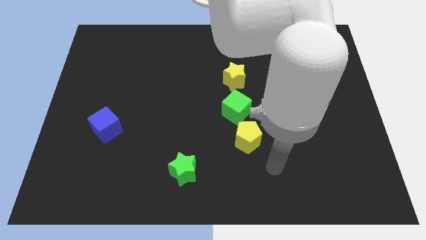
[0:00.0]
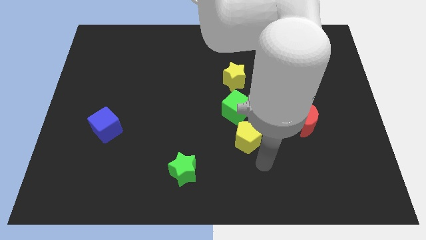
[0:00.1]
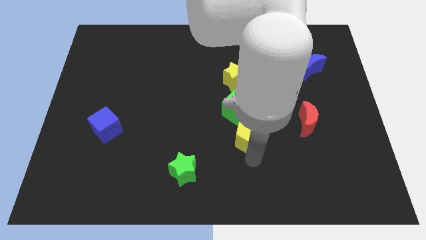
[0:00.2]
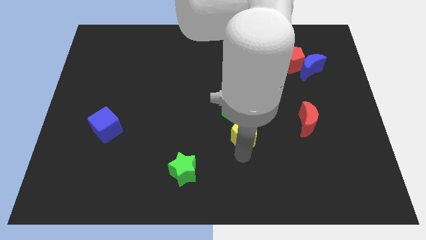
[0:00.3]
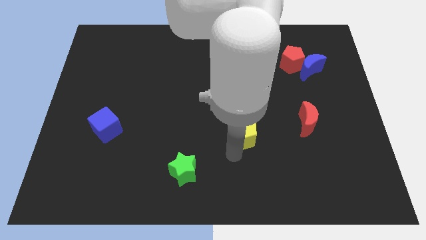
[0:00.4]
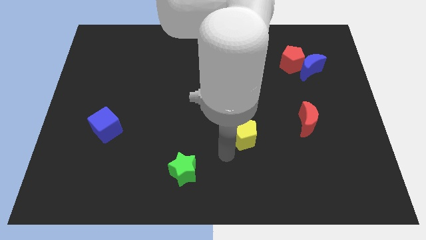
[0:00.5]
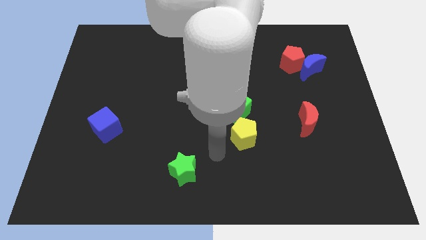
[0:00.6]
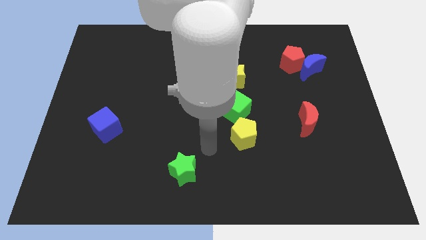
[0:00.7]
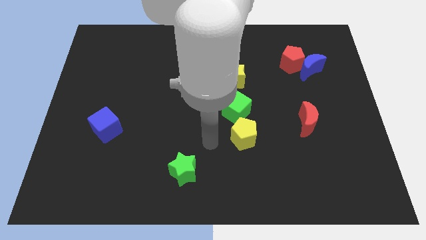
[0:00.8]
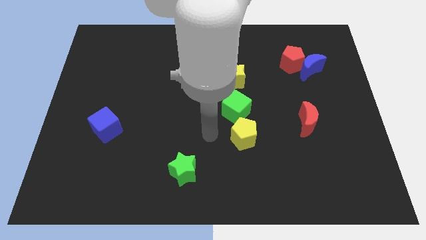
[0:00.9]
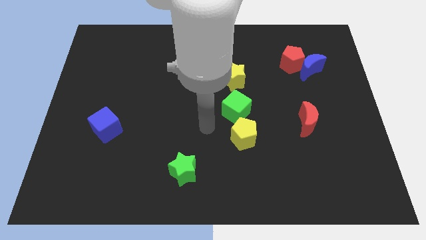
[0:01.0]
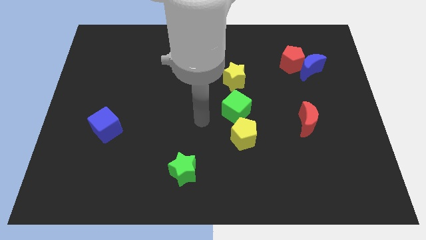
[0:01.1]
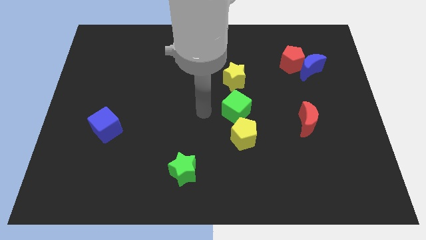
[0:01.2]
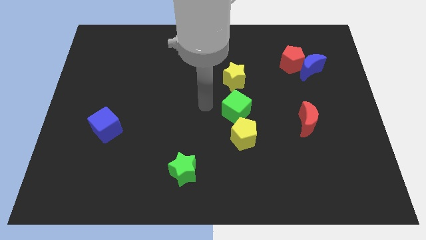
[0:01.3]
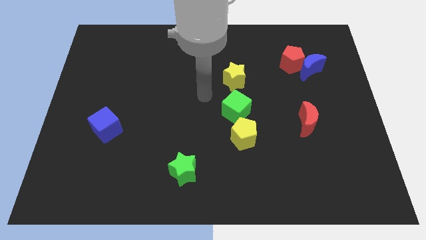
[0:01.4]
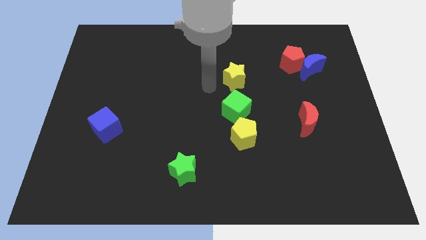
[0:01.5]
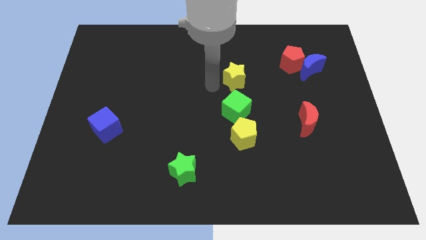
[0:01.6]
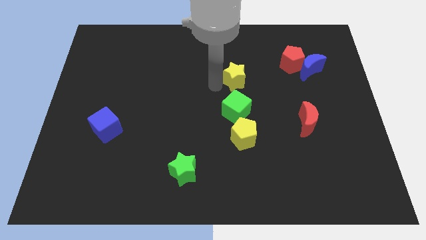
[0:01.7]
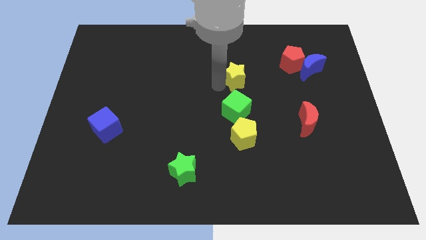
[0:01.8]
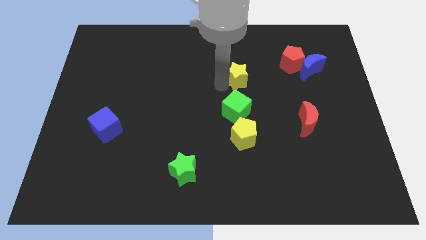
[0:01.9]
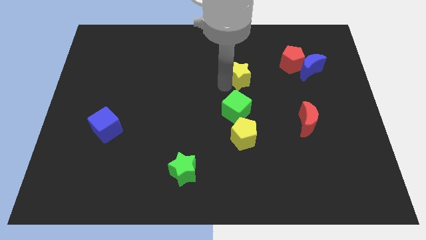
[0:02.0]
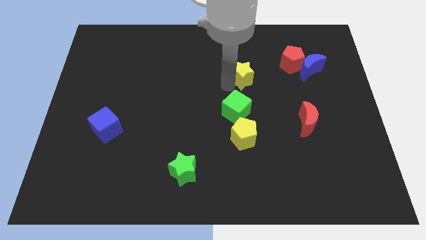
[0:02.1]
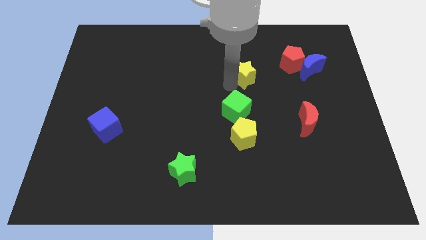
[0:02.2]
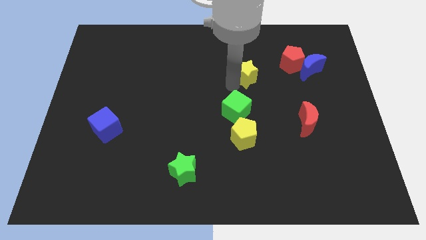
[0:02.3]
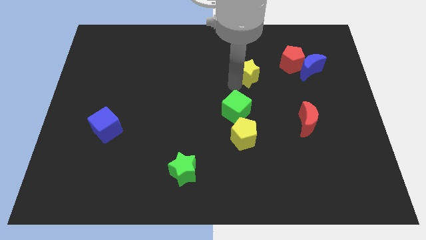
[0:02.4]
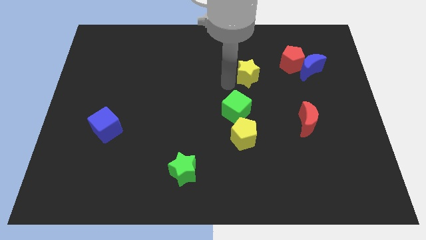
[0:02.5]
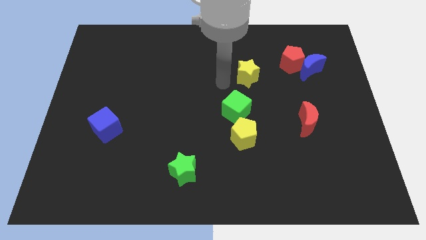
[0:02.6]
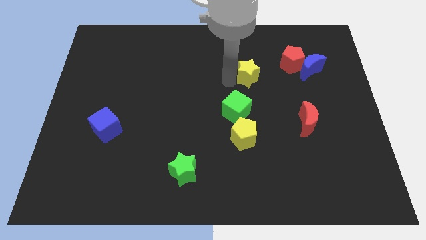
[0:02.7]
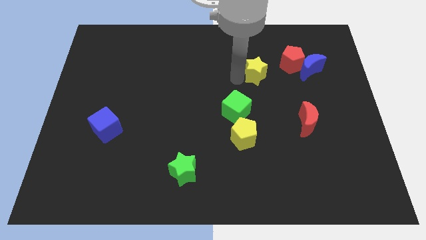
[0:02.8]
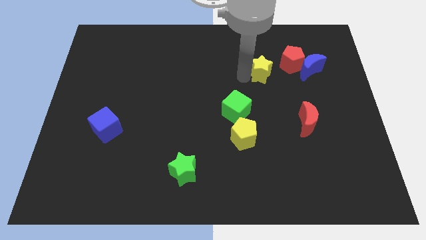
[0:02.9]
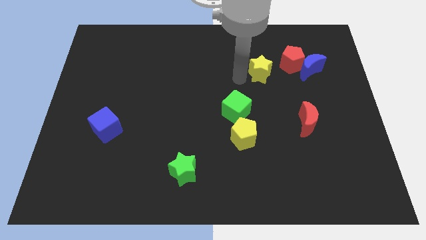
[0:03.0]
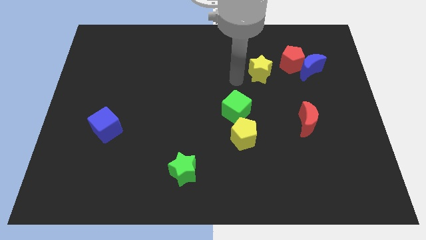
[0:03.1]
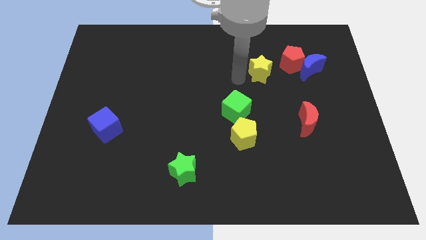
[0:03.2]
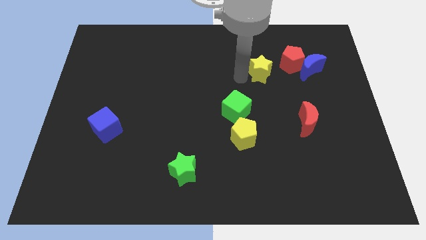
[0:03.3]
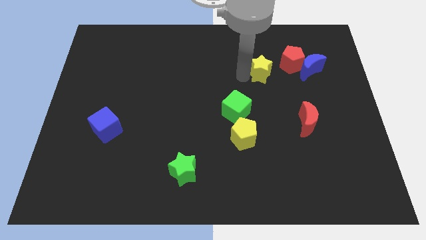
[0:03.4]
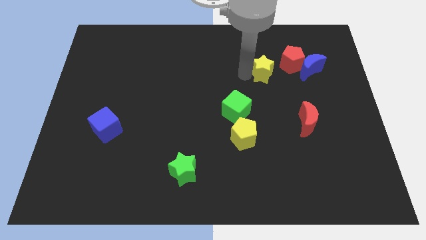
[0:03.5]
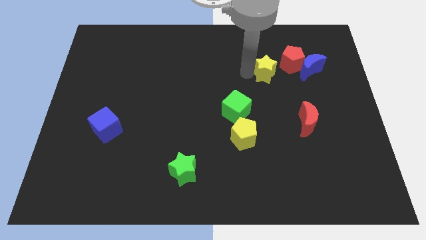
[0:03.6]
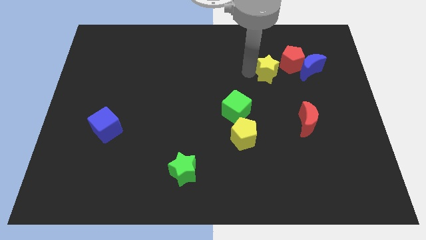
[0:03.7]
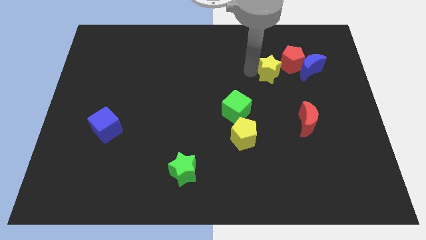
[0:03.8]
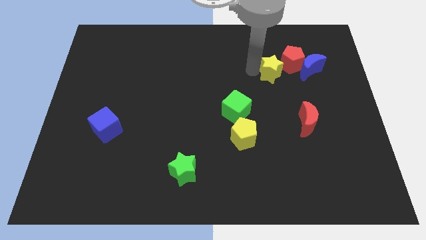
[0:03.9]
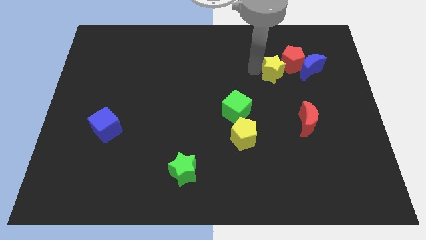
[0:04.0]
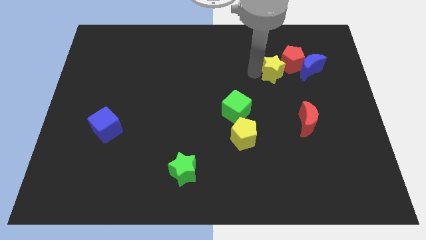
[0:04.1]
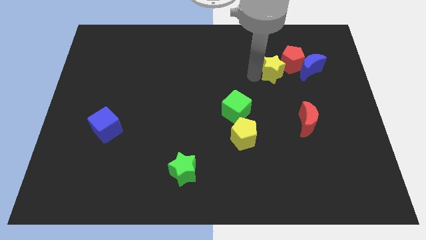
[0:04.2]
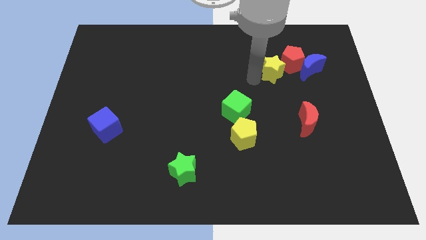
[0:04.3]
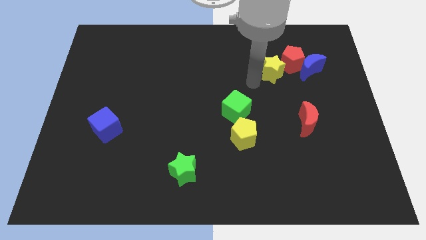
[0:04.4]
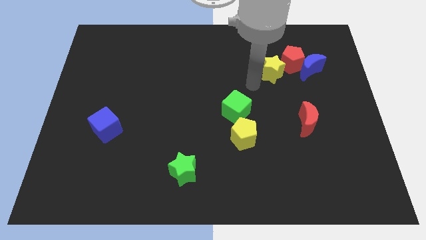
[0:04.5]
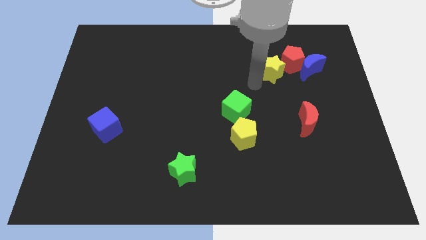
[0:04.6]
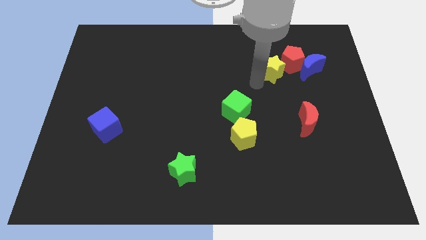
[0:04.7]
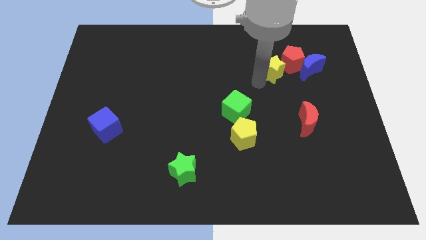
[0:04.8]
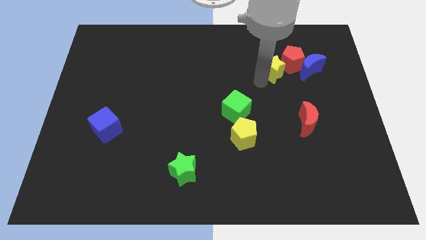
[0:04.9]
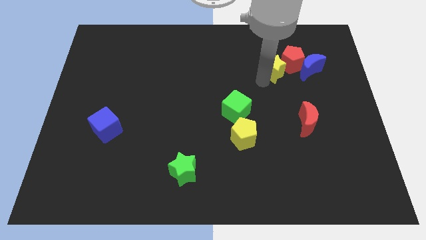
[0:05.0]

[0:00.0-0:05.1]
slide the yellow star close to the red pentagon

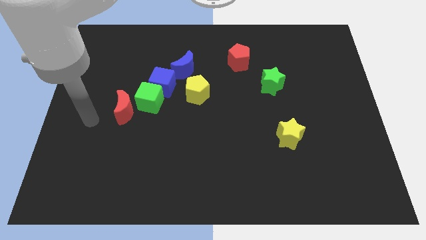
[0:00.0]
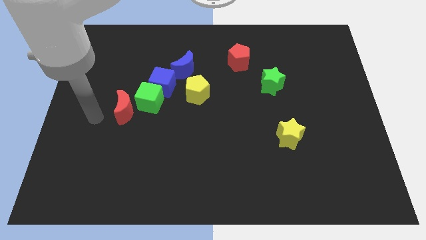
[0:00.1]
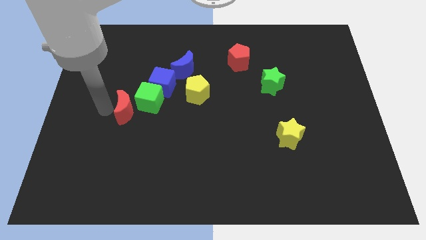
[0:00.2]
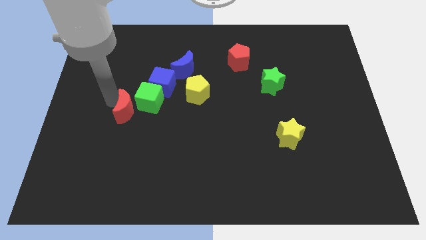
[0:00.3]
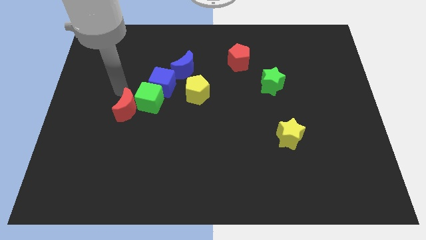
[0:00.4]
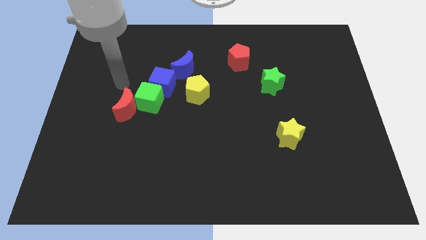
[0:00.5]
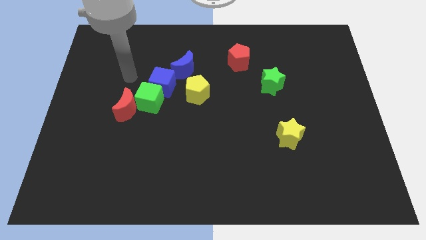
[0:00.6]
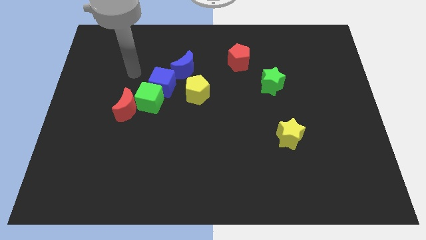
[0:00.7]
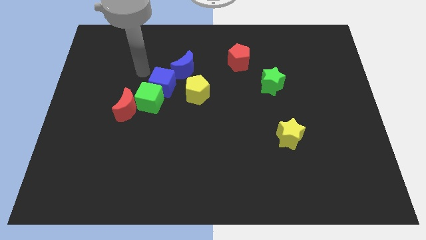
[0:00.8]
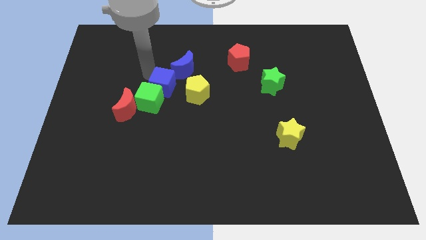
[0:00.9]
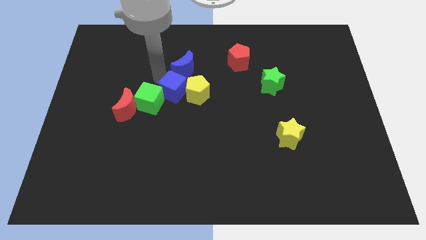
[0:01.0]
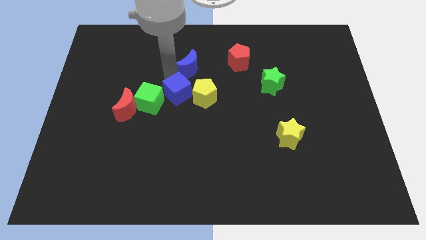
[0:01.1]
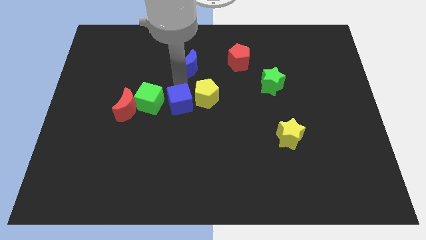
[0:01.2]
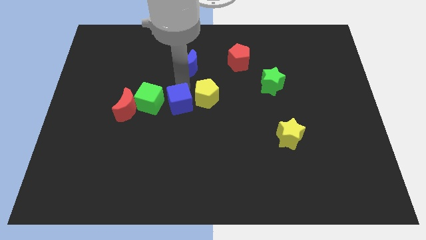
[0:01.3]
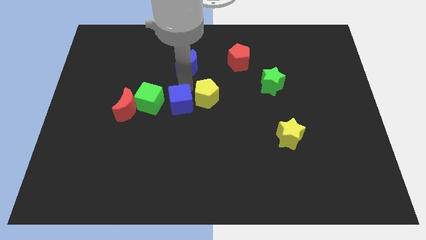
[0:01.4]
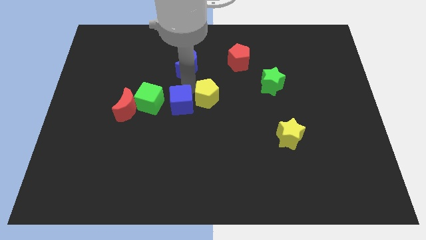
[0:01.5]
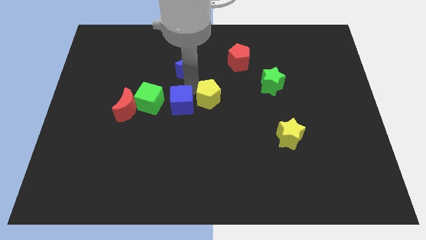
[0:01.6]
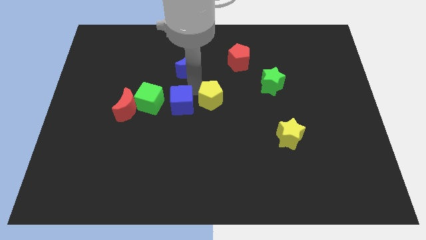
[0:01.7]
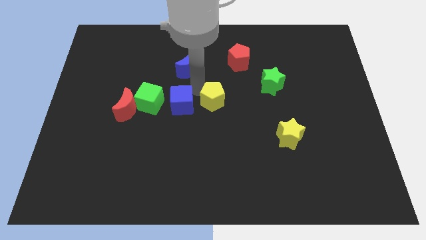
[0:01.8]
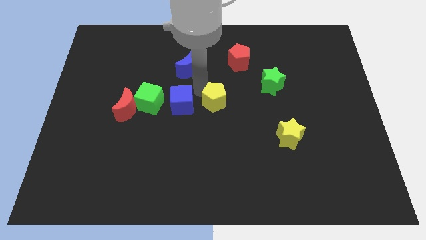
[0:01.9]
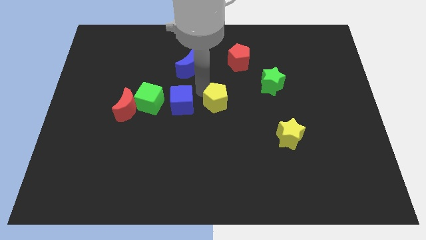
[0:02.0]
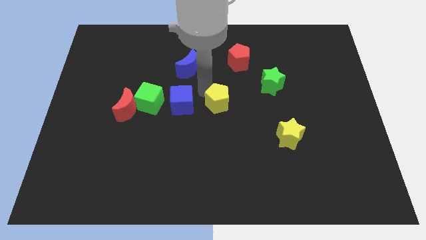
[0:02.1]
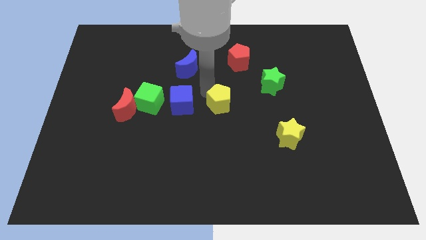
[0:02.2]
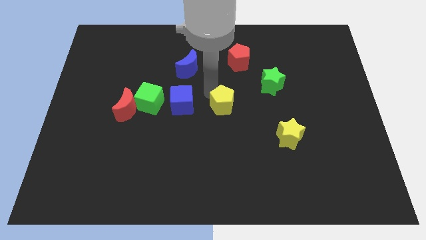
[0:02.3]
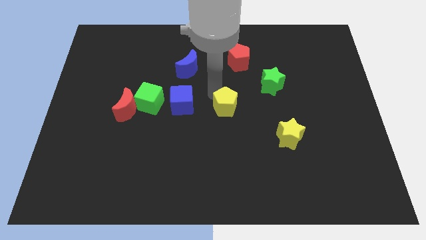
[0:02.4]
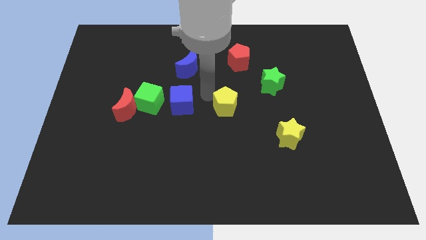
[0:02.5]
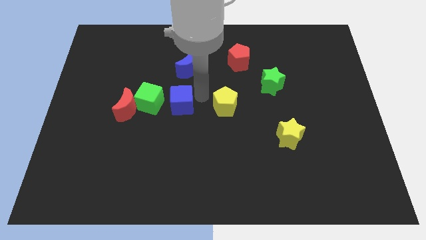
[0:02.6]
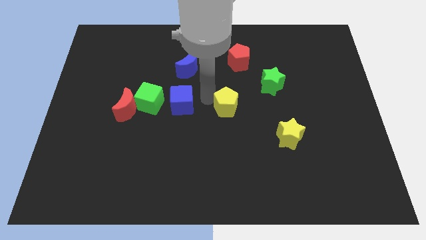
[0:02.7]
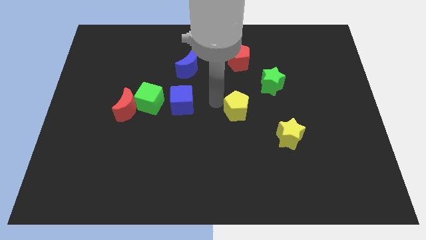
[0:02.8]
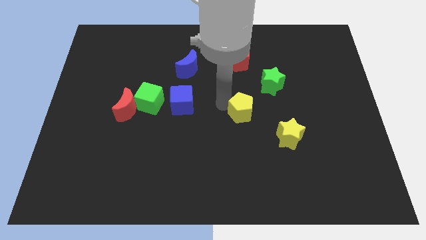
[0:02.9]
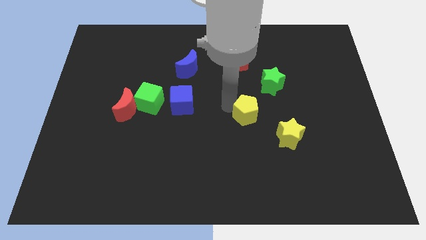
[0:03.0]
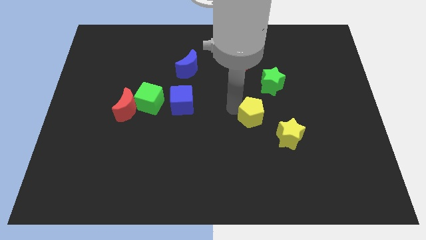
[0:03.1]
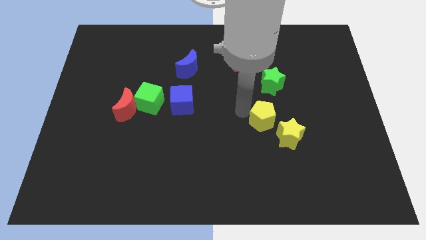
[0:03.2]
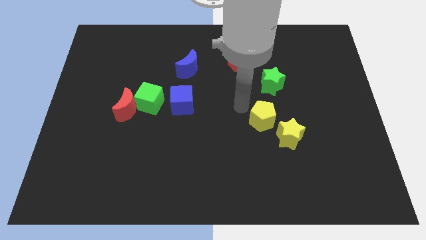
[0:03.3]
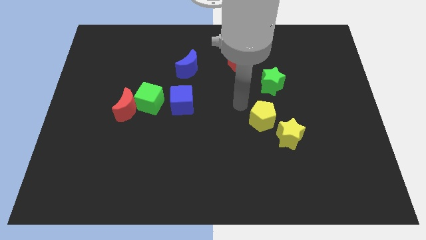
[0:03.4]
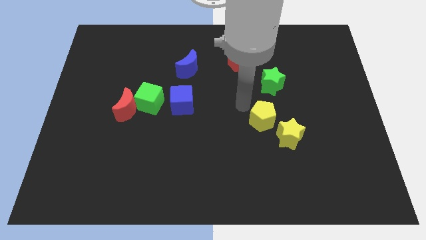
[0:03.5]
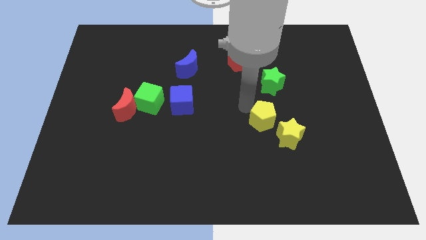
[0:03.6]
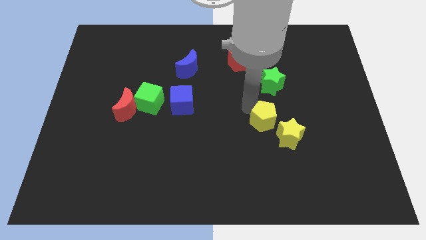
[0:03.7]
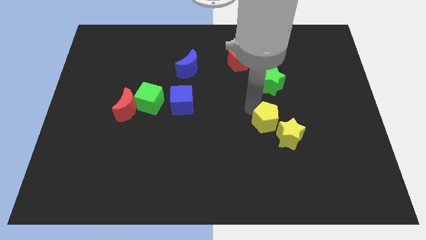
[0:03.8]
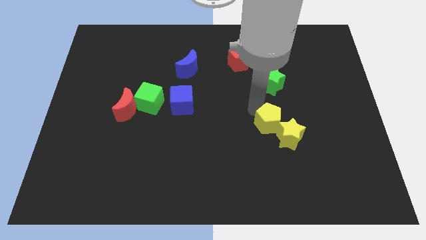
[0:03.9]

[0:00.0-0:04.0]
put the yellow pentagon to the yellow star
